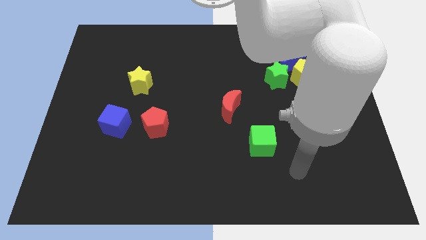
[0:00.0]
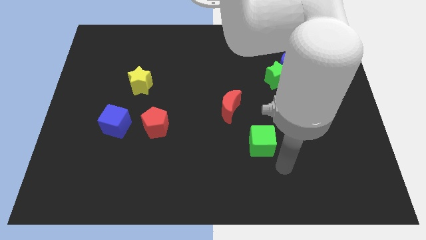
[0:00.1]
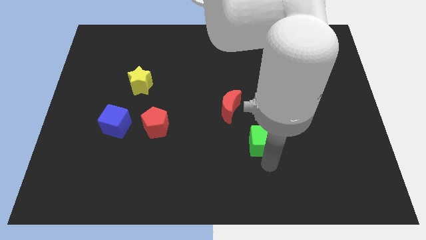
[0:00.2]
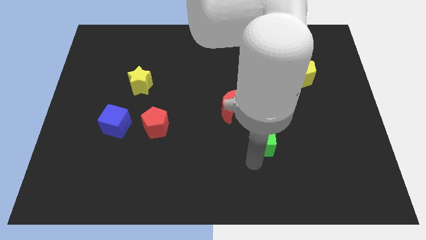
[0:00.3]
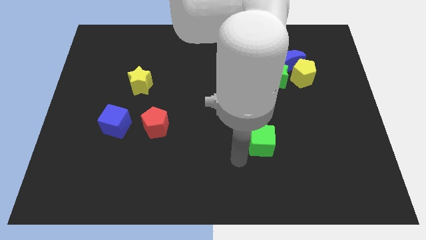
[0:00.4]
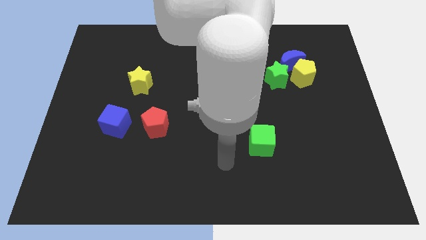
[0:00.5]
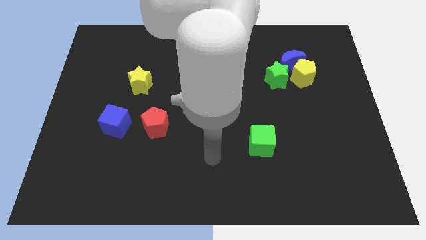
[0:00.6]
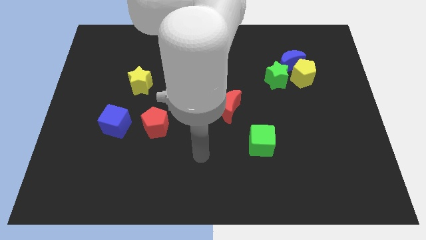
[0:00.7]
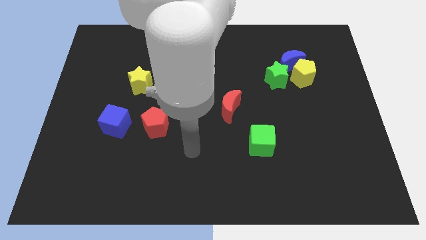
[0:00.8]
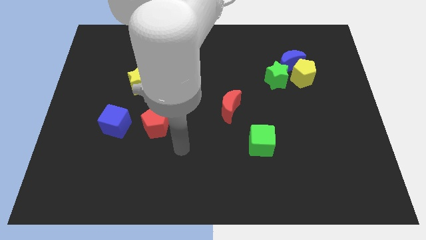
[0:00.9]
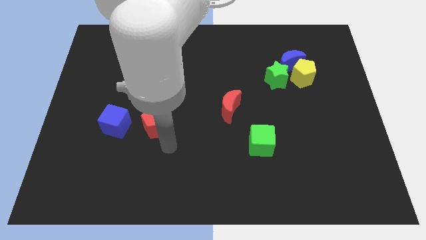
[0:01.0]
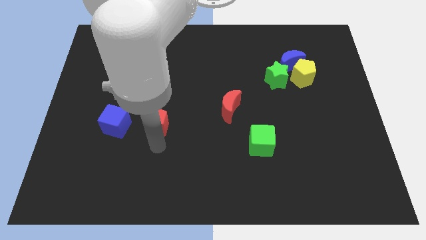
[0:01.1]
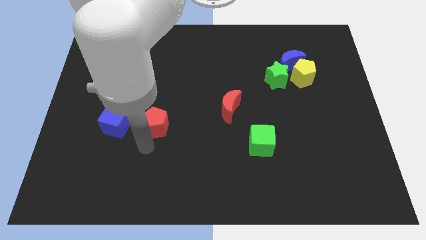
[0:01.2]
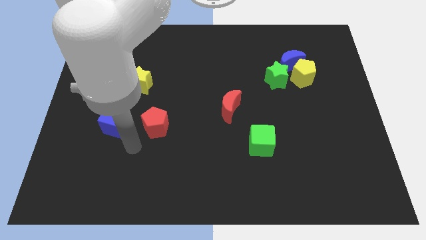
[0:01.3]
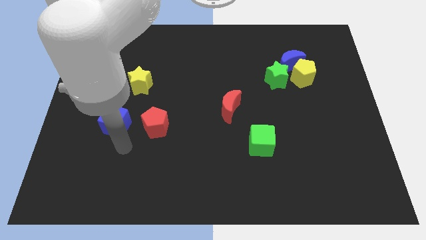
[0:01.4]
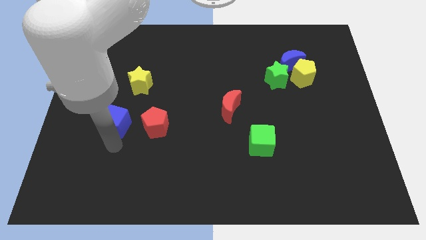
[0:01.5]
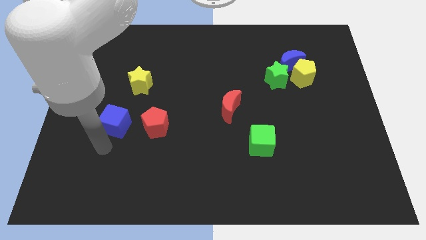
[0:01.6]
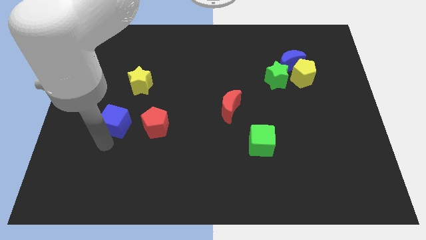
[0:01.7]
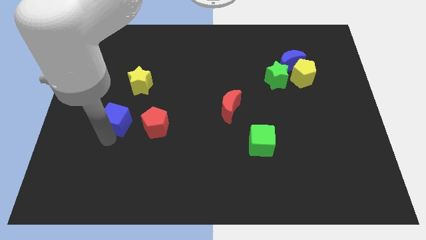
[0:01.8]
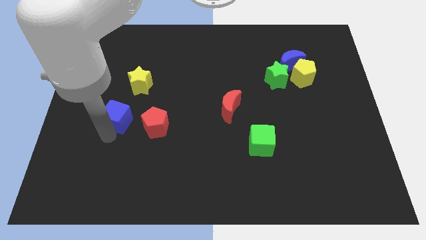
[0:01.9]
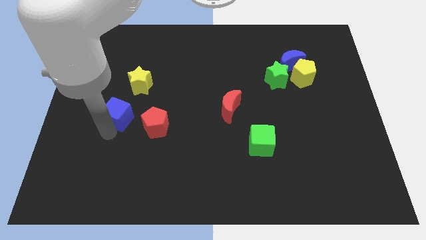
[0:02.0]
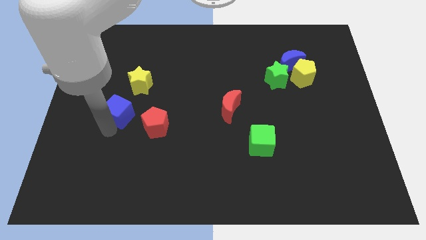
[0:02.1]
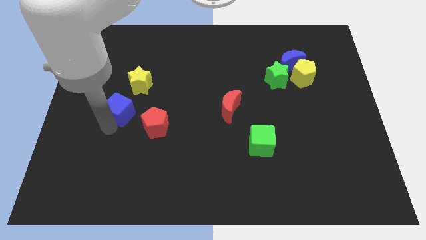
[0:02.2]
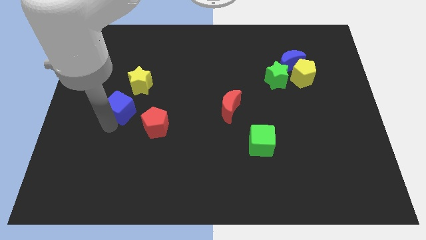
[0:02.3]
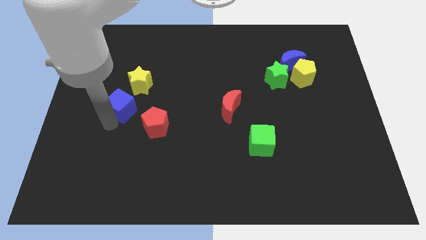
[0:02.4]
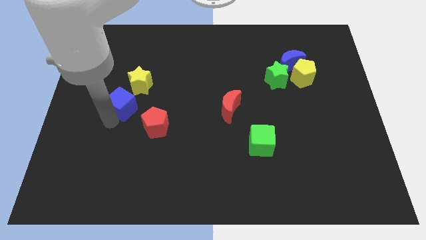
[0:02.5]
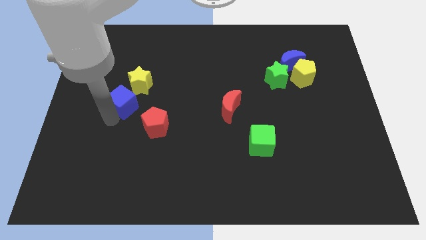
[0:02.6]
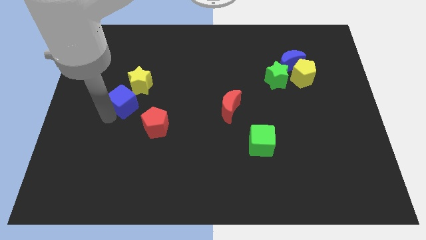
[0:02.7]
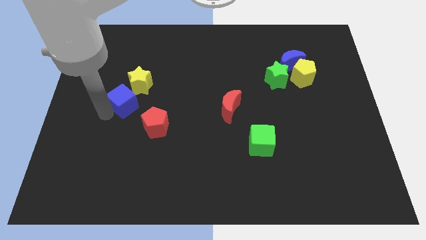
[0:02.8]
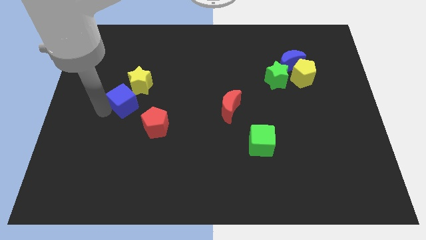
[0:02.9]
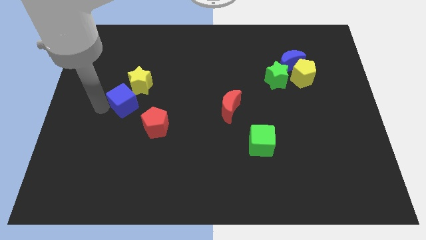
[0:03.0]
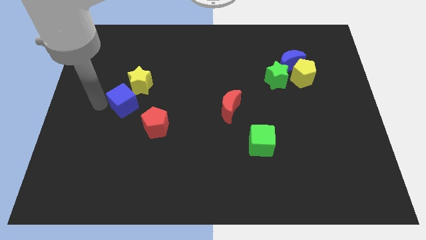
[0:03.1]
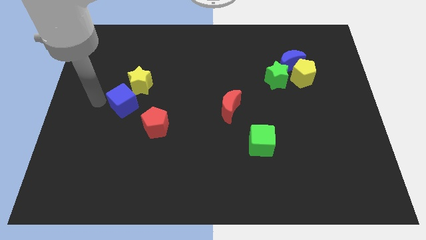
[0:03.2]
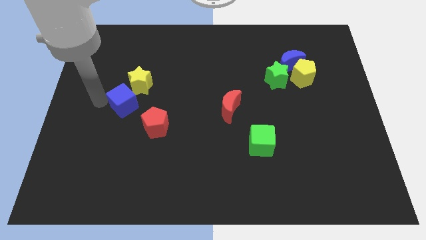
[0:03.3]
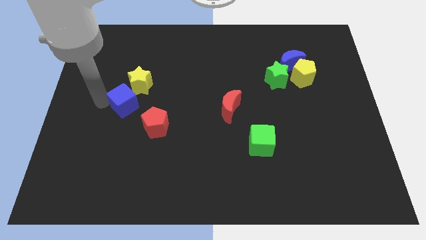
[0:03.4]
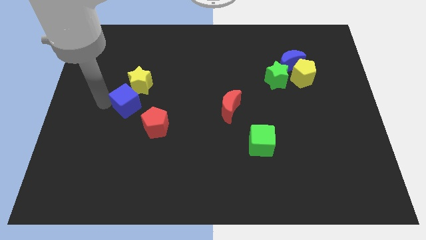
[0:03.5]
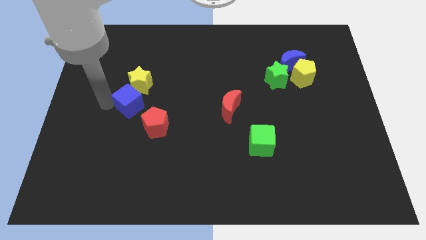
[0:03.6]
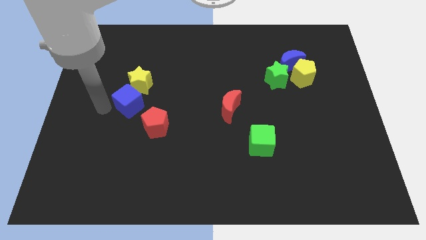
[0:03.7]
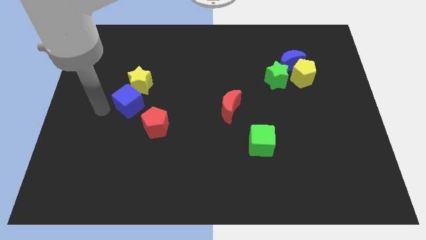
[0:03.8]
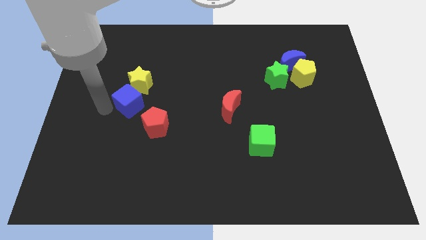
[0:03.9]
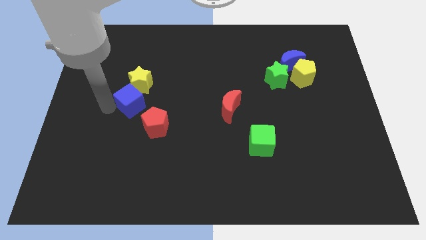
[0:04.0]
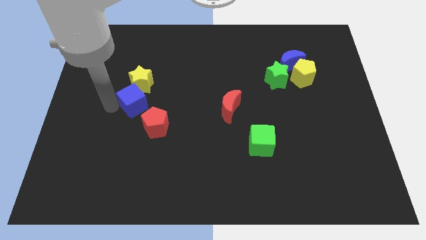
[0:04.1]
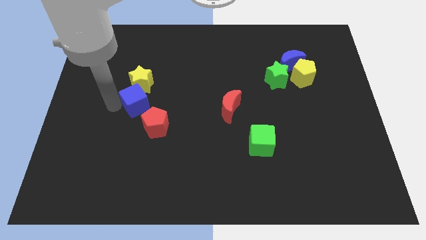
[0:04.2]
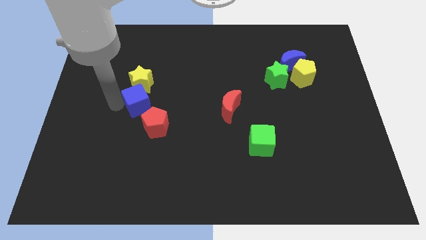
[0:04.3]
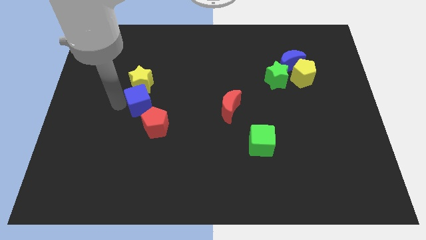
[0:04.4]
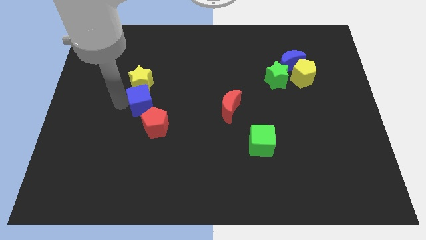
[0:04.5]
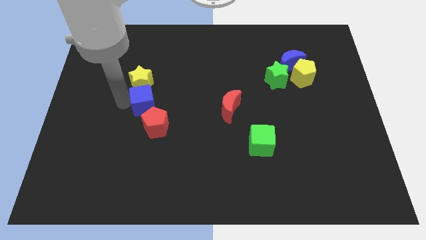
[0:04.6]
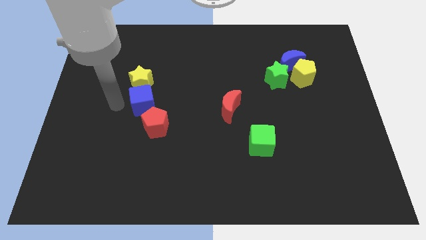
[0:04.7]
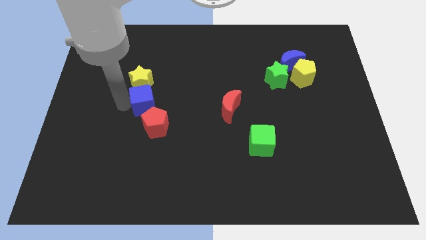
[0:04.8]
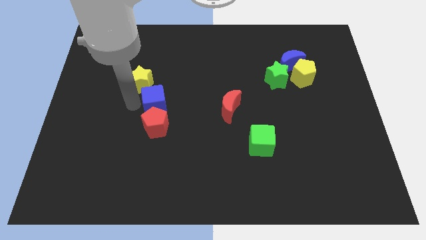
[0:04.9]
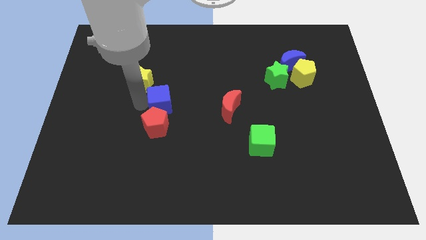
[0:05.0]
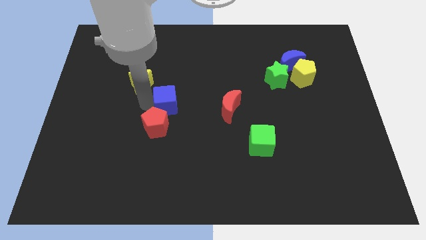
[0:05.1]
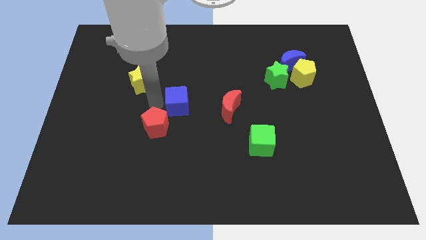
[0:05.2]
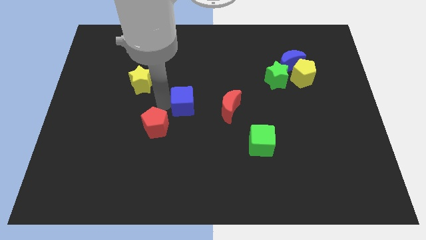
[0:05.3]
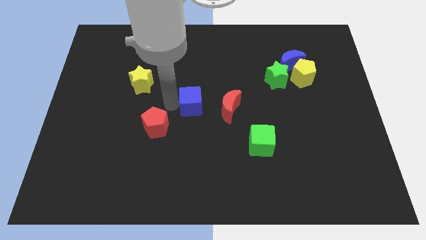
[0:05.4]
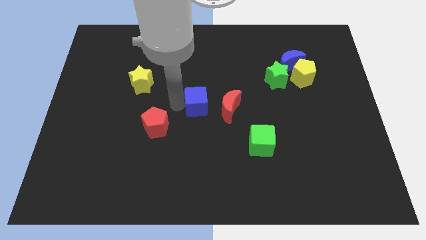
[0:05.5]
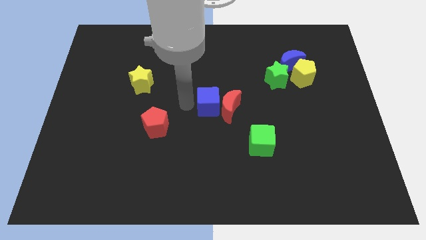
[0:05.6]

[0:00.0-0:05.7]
move the blue cube to the red moon

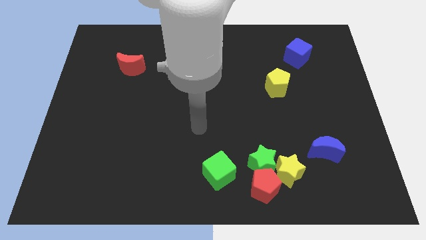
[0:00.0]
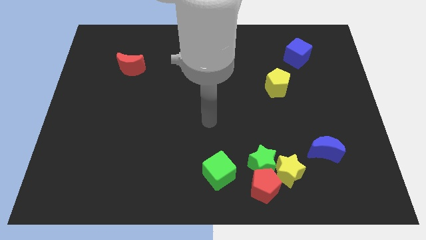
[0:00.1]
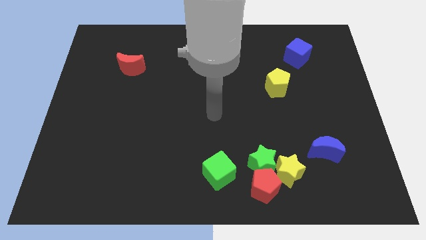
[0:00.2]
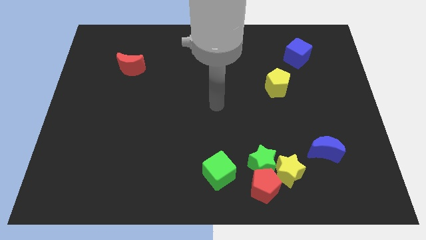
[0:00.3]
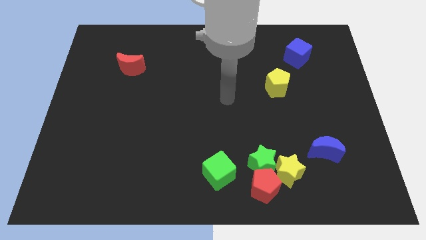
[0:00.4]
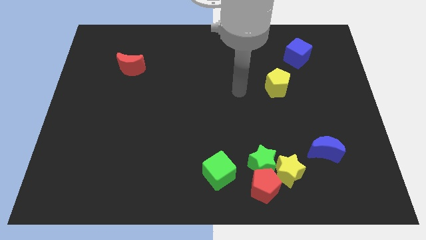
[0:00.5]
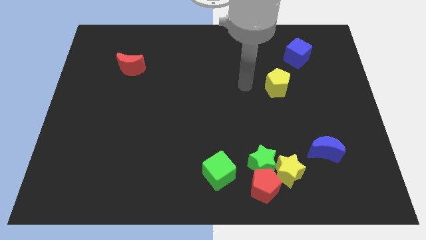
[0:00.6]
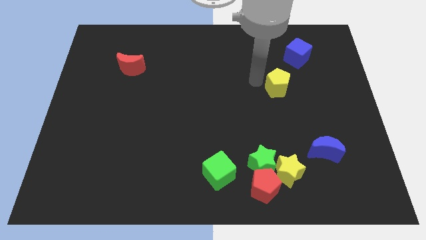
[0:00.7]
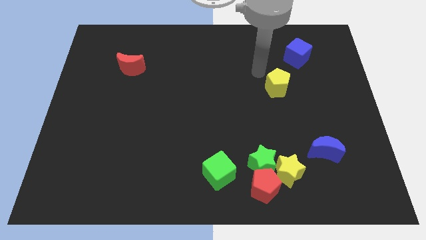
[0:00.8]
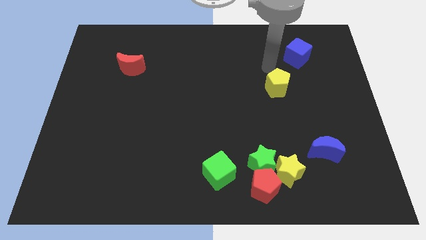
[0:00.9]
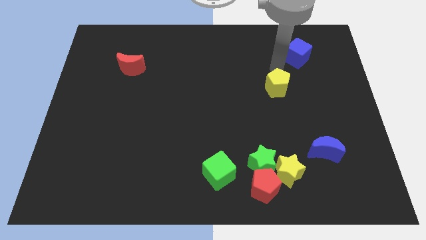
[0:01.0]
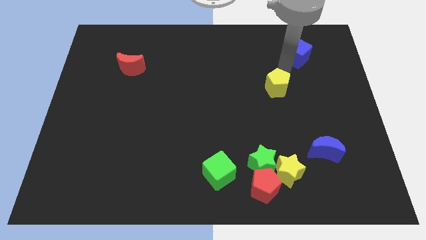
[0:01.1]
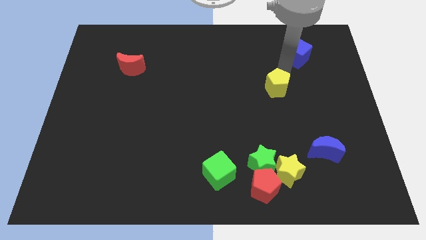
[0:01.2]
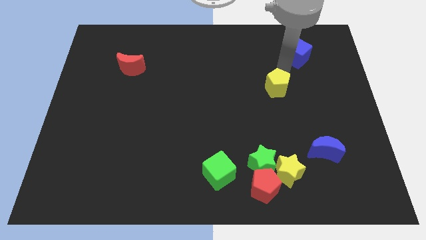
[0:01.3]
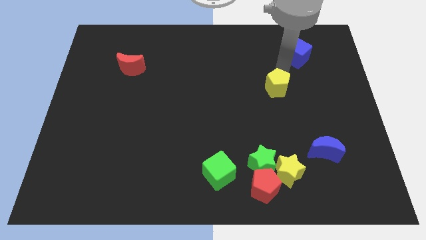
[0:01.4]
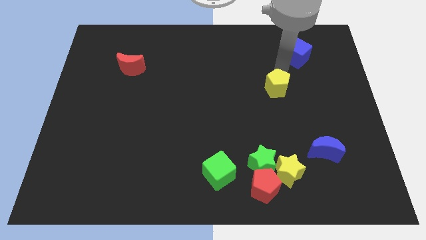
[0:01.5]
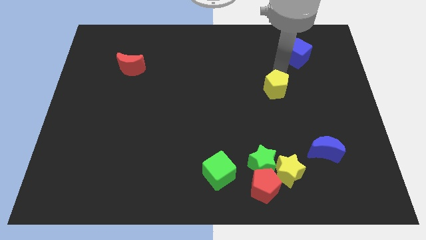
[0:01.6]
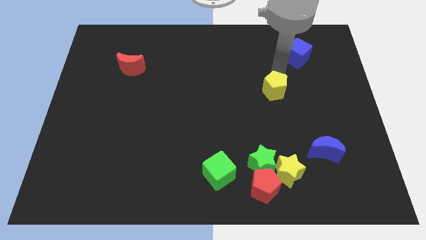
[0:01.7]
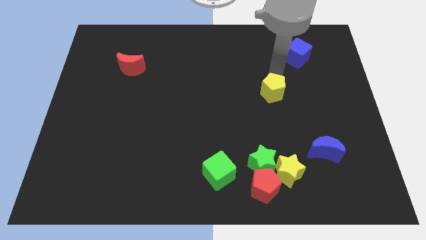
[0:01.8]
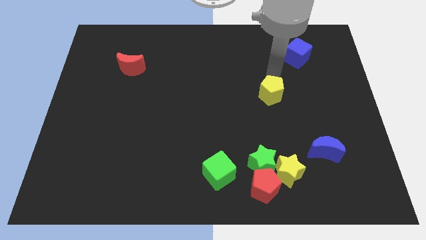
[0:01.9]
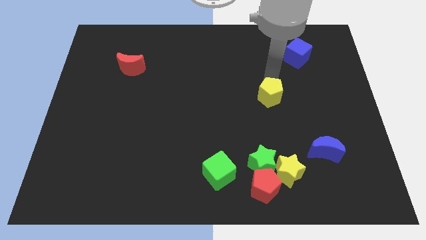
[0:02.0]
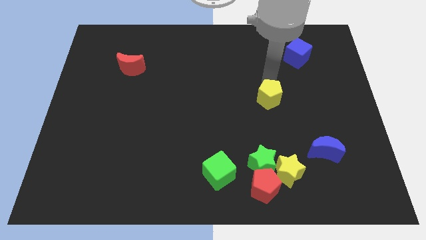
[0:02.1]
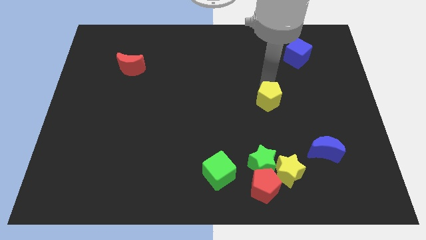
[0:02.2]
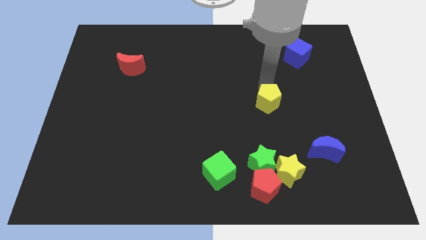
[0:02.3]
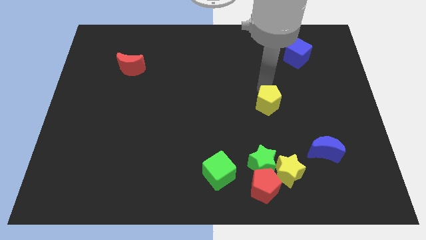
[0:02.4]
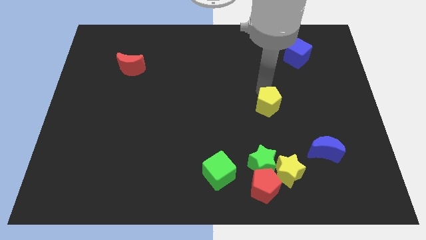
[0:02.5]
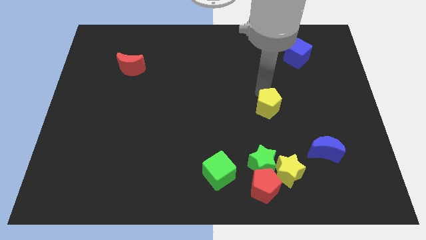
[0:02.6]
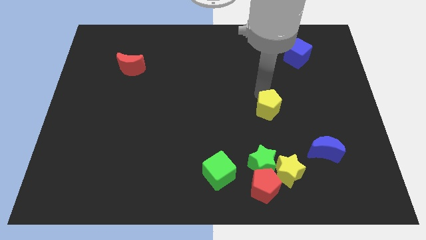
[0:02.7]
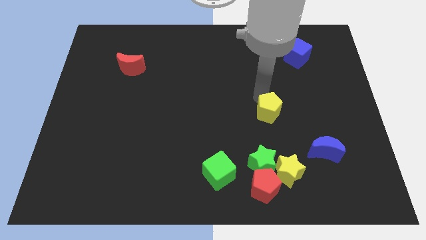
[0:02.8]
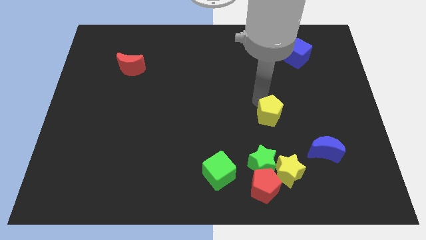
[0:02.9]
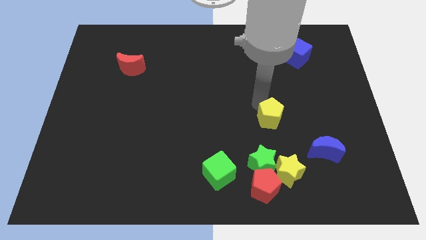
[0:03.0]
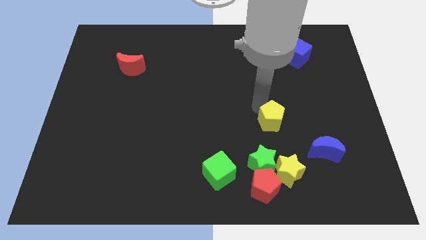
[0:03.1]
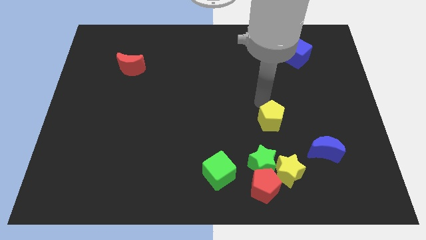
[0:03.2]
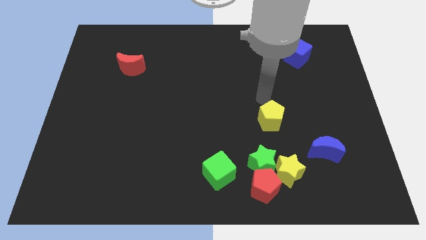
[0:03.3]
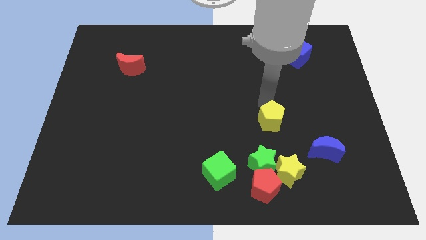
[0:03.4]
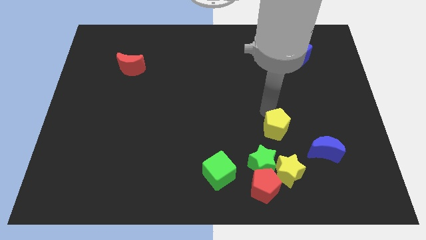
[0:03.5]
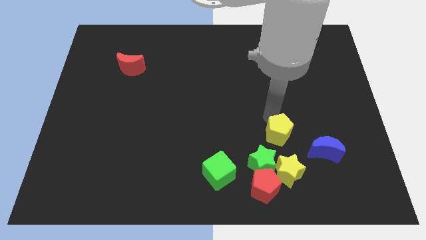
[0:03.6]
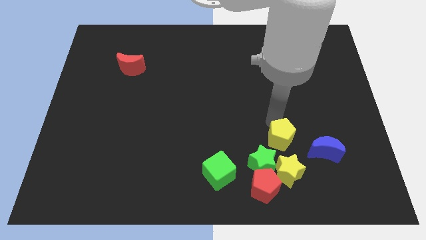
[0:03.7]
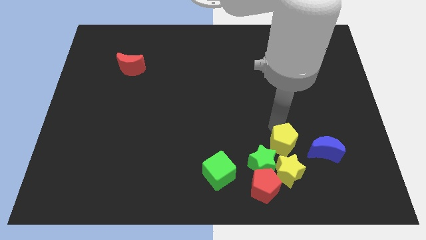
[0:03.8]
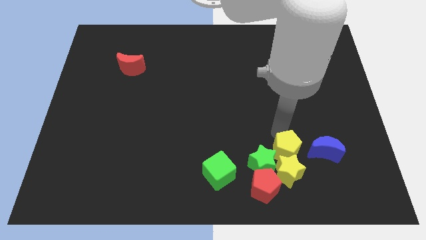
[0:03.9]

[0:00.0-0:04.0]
move the yellow pentagon next to the yellow star
